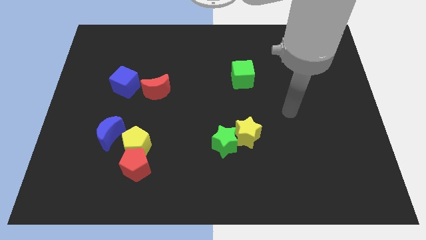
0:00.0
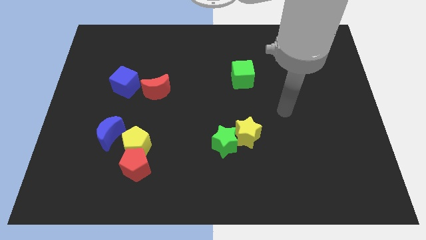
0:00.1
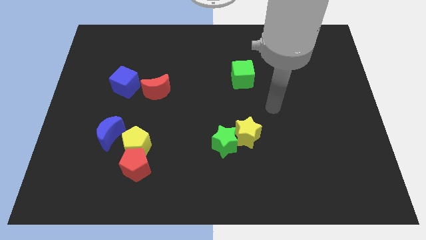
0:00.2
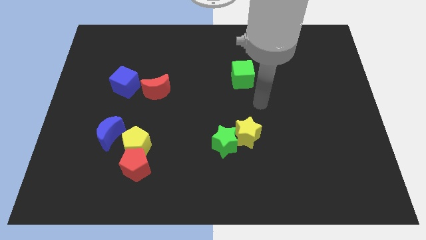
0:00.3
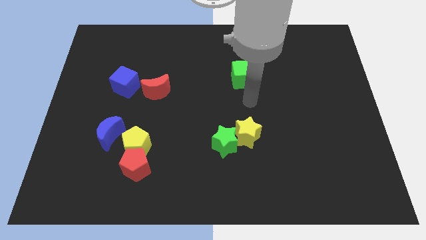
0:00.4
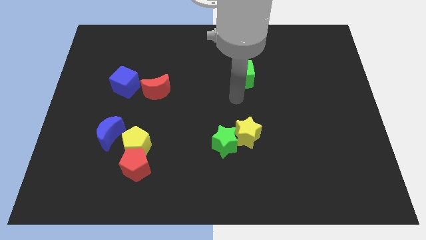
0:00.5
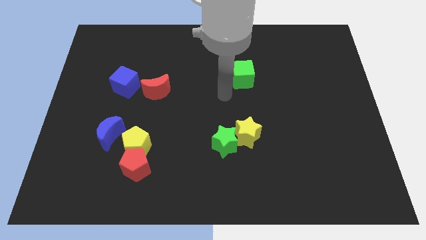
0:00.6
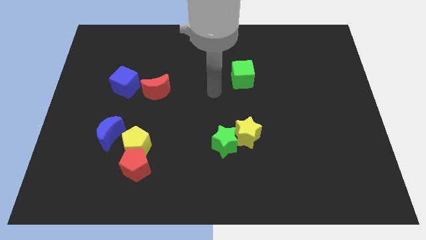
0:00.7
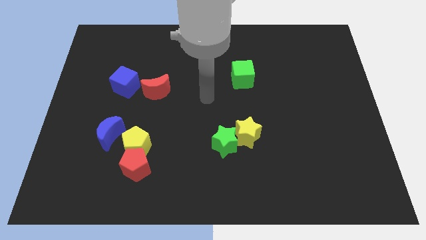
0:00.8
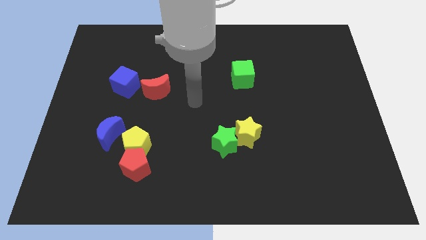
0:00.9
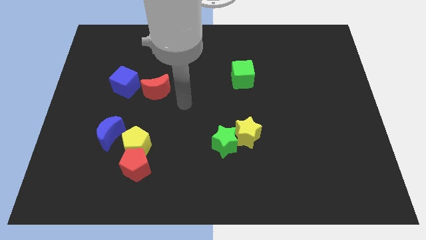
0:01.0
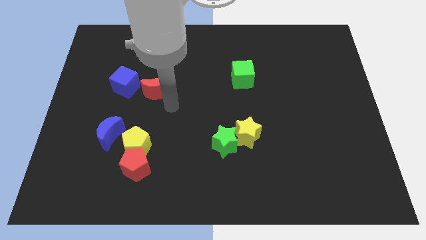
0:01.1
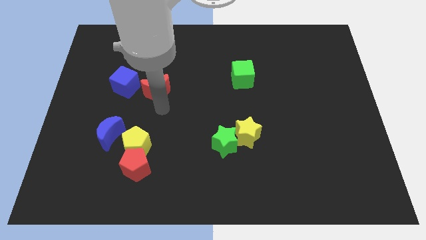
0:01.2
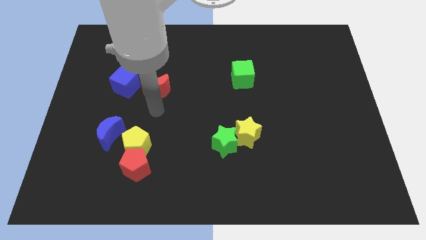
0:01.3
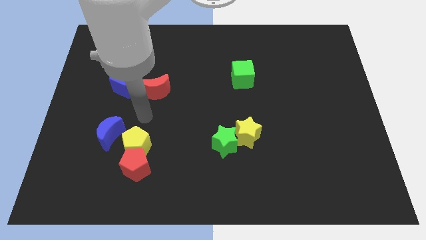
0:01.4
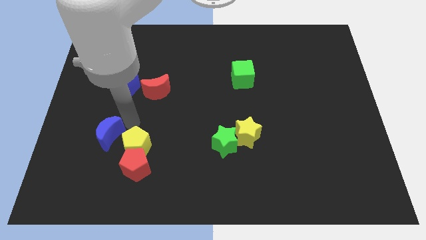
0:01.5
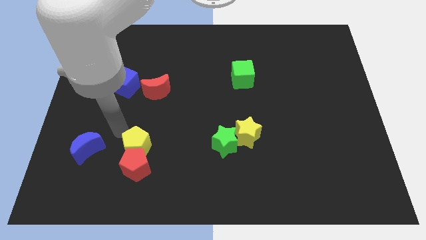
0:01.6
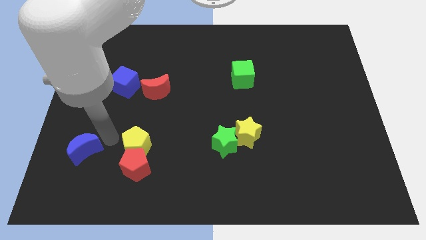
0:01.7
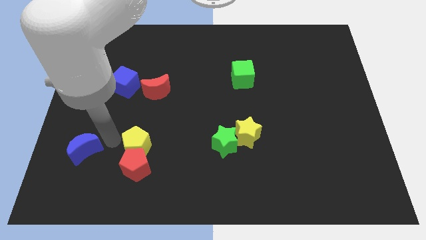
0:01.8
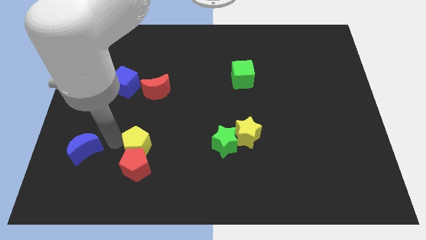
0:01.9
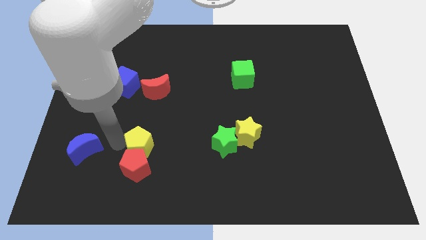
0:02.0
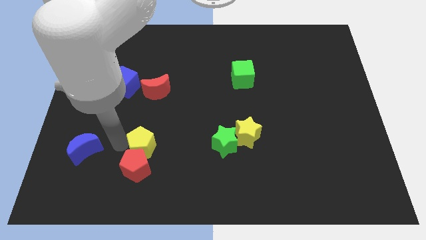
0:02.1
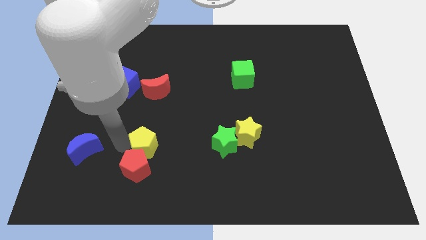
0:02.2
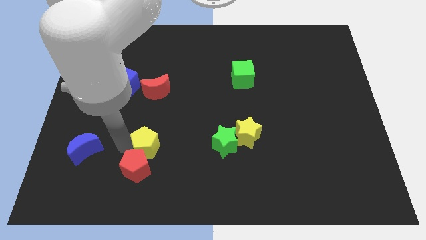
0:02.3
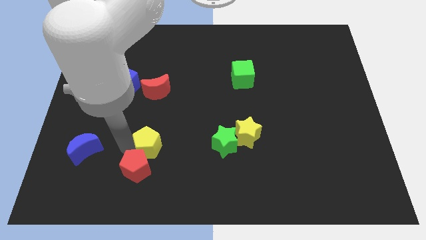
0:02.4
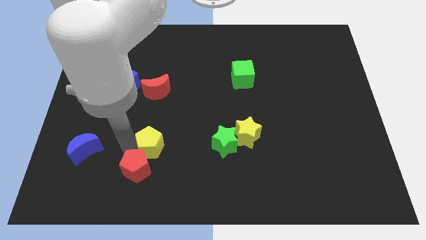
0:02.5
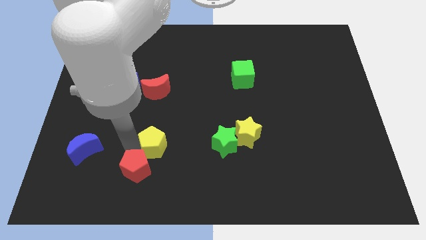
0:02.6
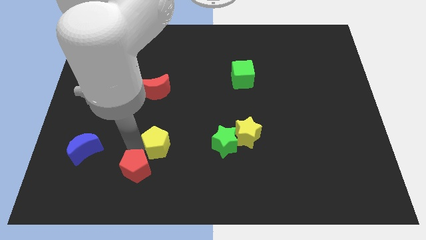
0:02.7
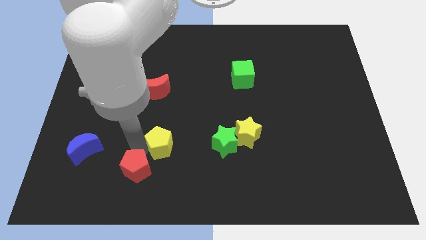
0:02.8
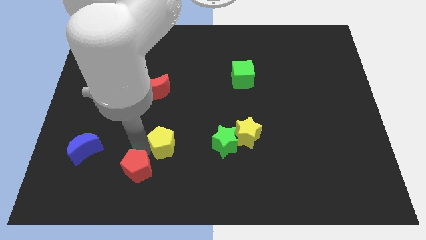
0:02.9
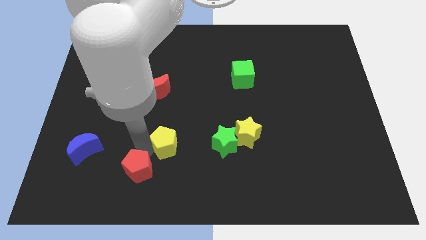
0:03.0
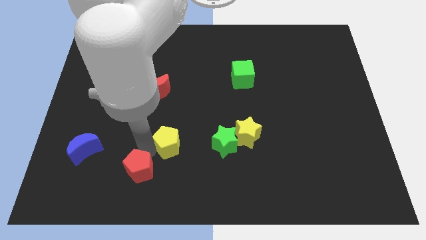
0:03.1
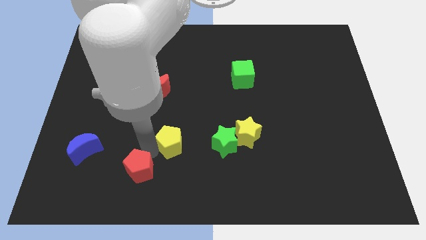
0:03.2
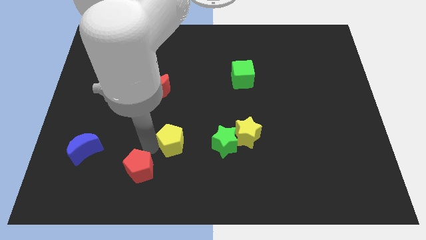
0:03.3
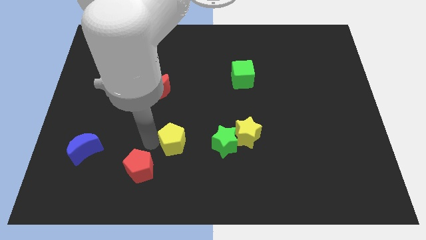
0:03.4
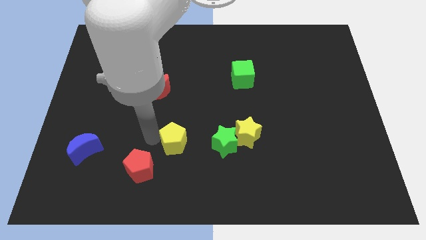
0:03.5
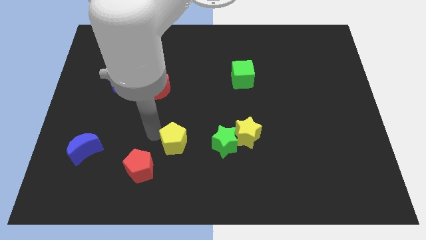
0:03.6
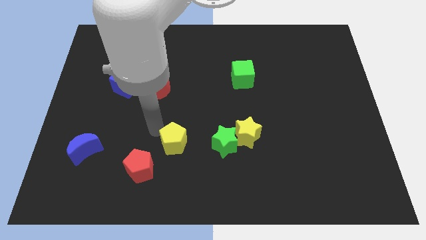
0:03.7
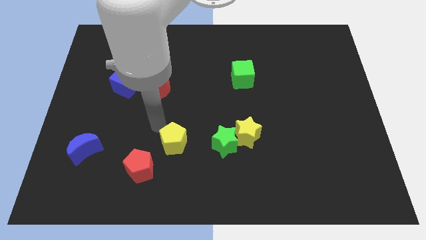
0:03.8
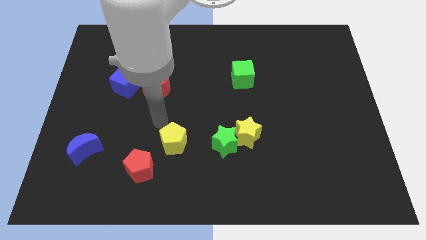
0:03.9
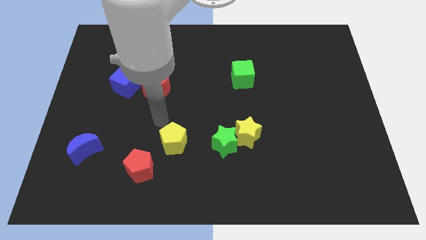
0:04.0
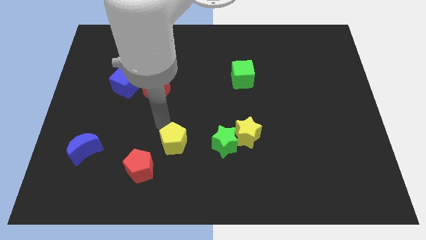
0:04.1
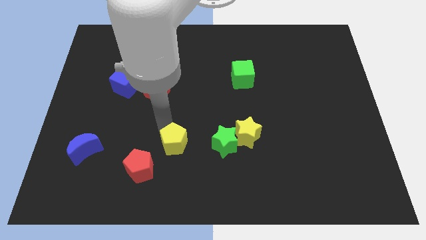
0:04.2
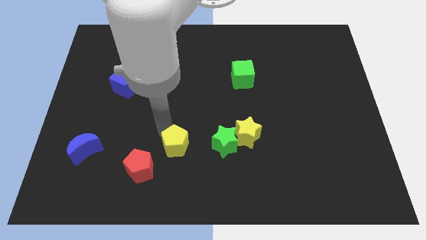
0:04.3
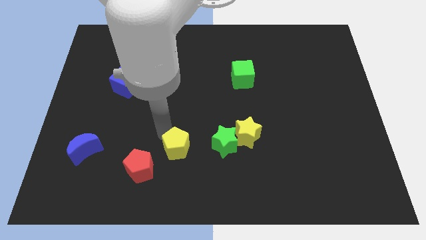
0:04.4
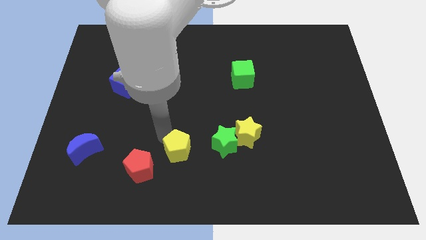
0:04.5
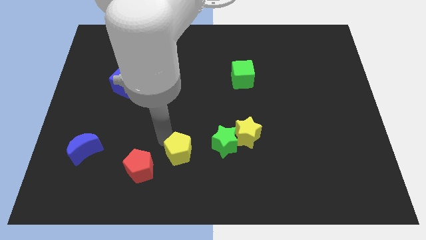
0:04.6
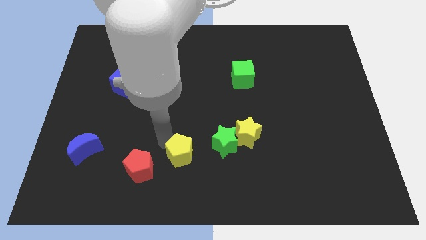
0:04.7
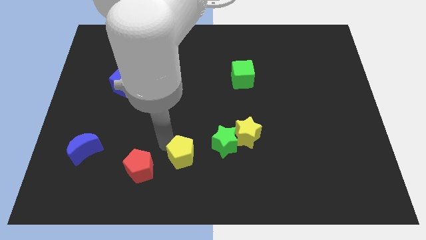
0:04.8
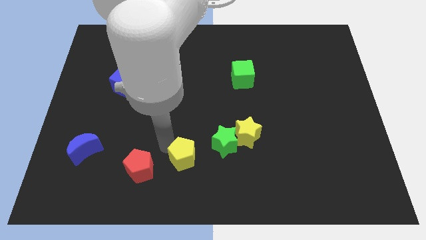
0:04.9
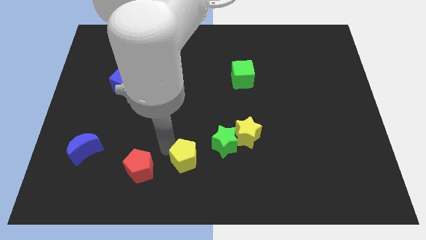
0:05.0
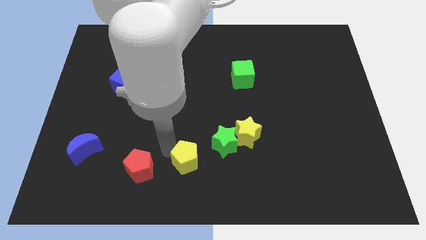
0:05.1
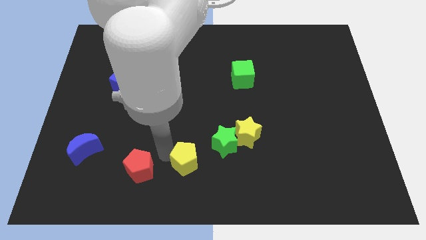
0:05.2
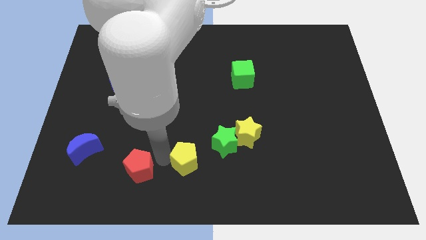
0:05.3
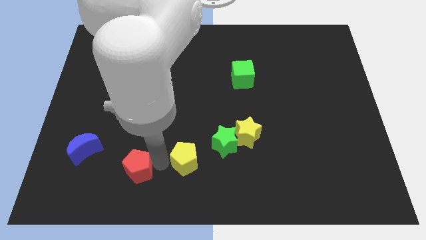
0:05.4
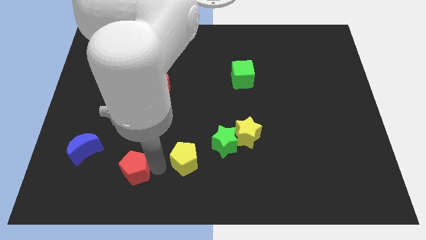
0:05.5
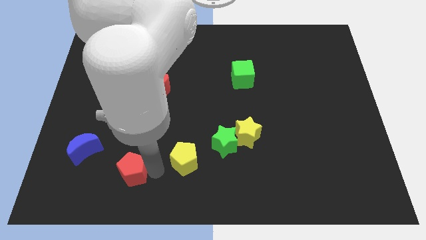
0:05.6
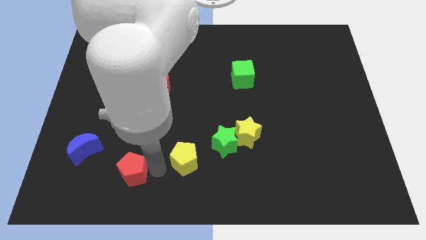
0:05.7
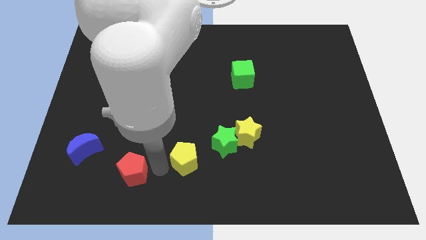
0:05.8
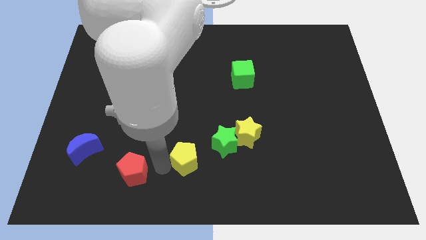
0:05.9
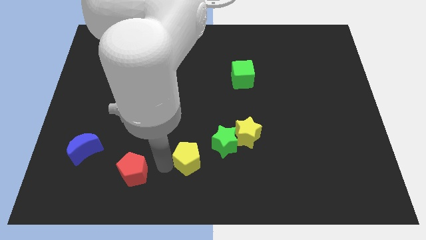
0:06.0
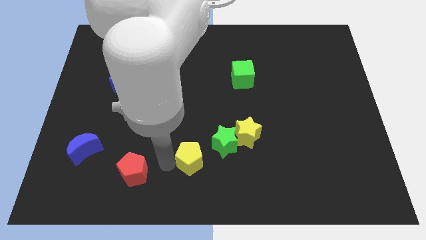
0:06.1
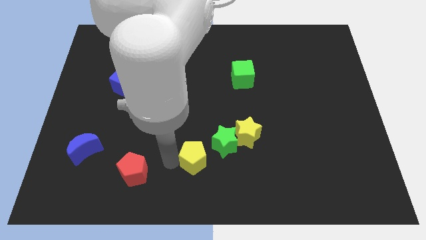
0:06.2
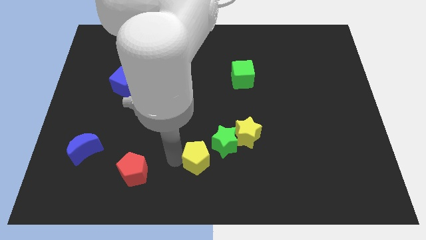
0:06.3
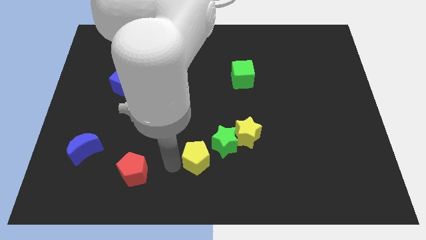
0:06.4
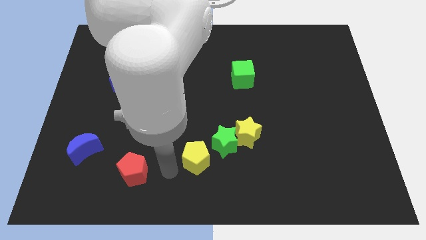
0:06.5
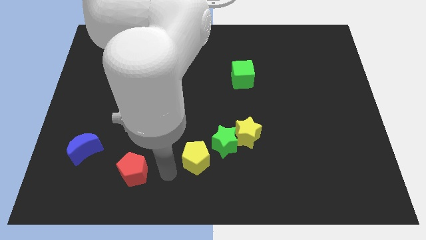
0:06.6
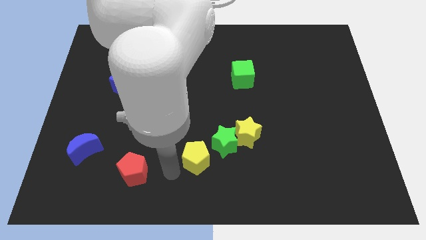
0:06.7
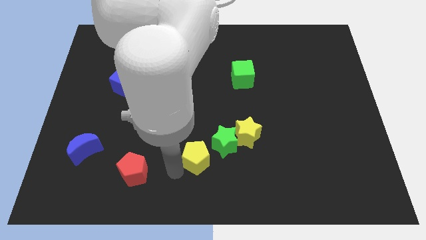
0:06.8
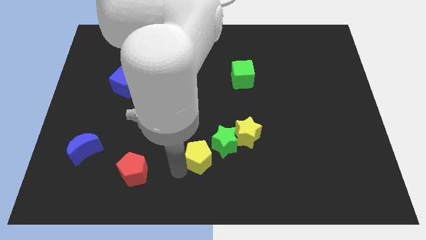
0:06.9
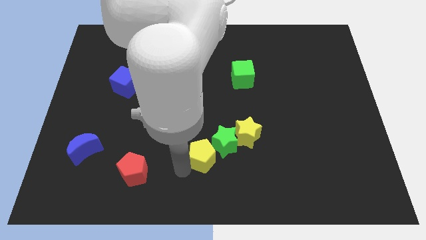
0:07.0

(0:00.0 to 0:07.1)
move the yellow pentagon towards the green star

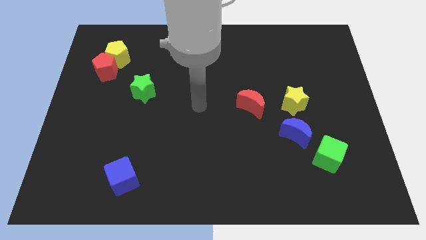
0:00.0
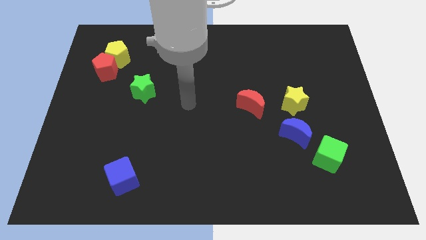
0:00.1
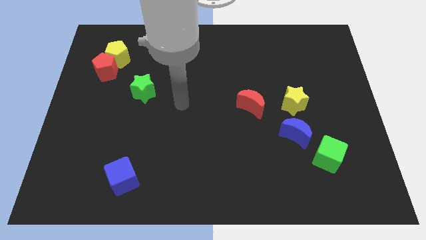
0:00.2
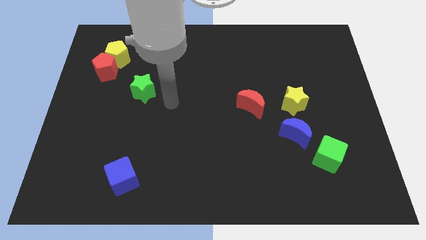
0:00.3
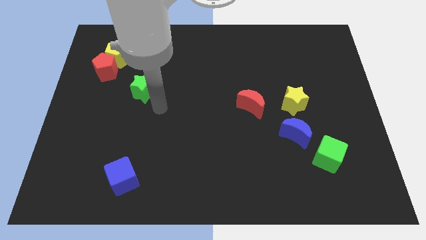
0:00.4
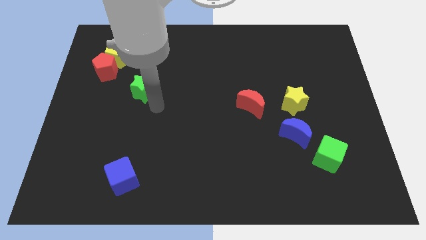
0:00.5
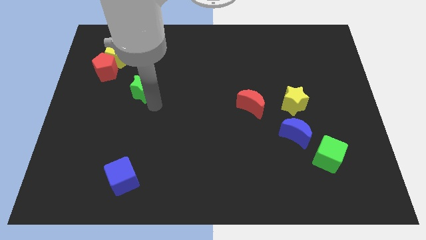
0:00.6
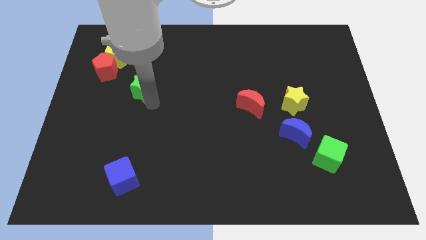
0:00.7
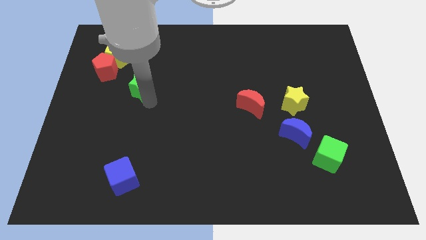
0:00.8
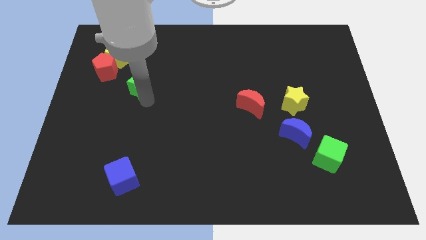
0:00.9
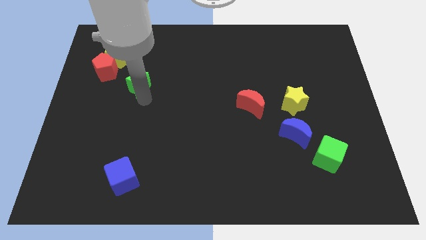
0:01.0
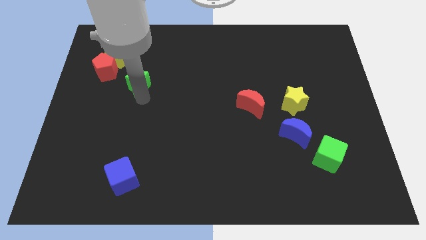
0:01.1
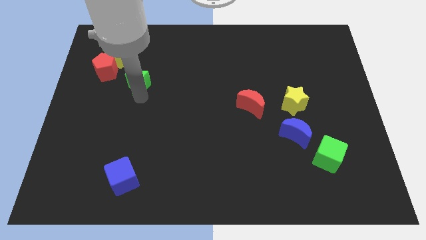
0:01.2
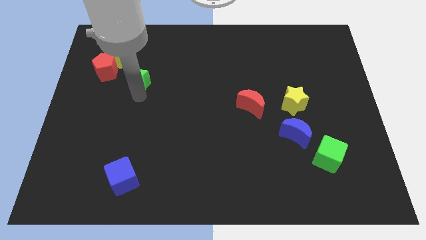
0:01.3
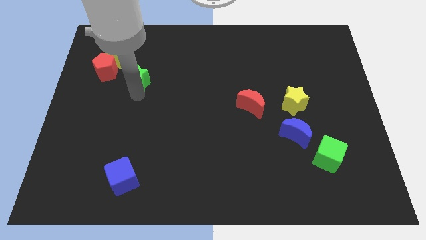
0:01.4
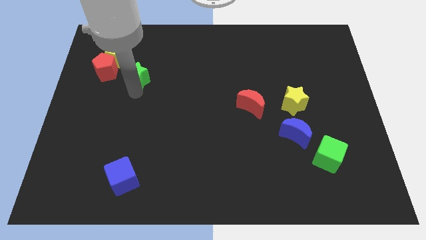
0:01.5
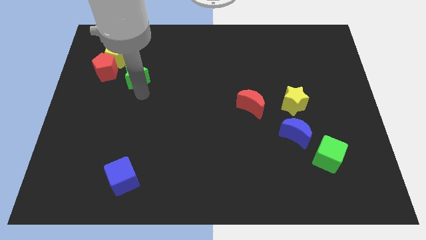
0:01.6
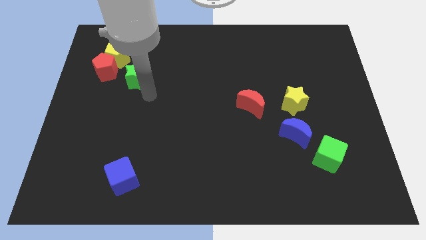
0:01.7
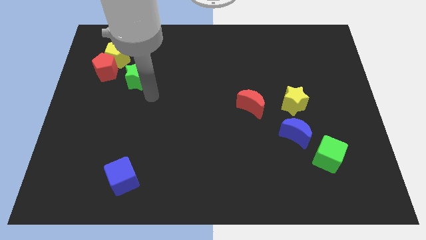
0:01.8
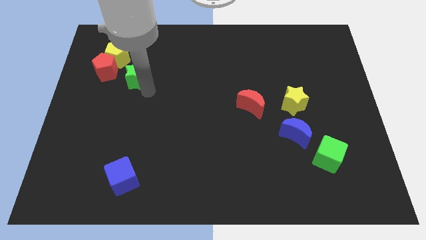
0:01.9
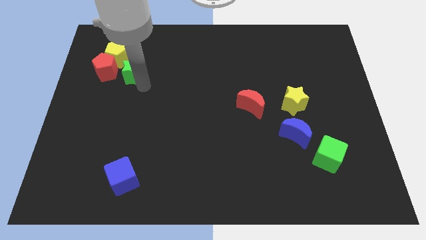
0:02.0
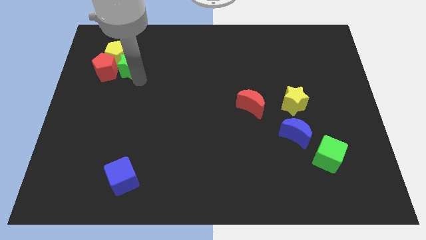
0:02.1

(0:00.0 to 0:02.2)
move the green star towards the yellow pentagon
